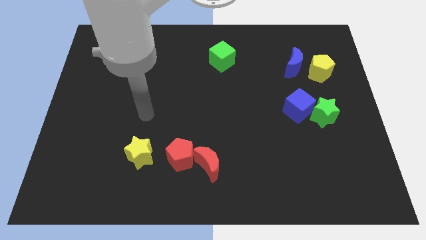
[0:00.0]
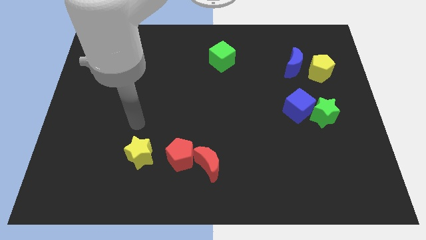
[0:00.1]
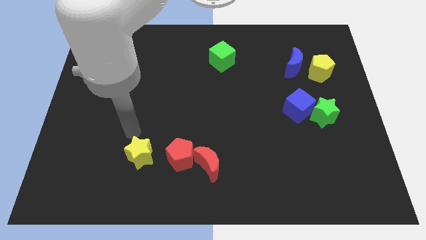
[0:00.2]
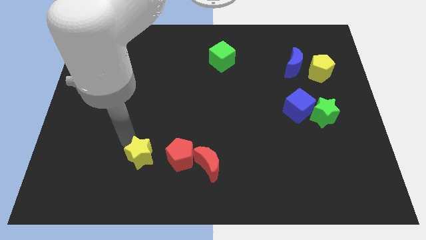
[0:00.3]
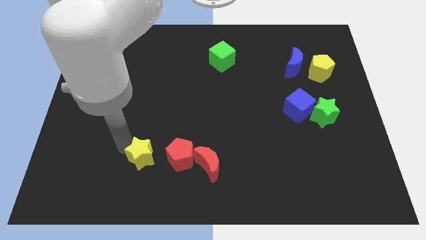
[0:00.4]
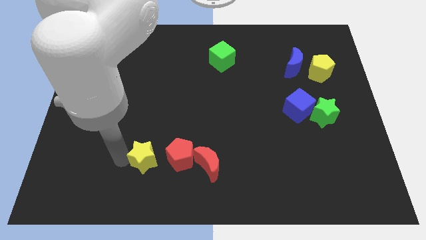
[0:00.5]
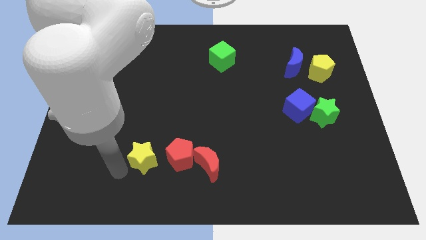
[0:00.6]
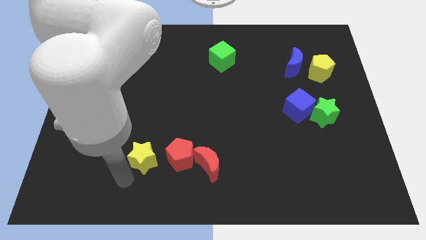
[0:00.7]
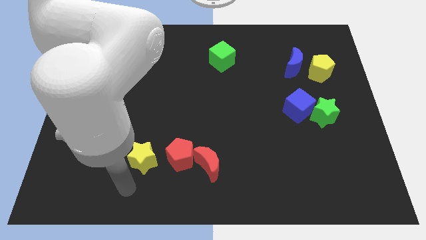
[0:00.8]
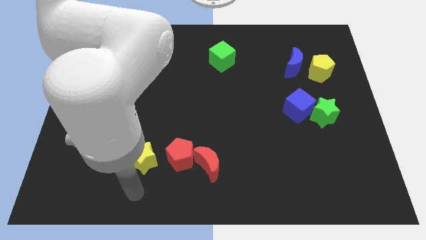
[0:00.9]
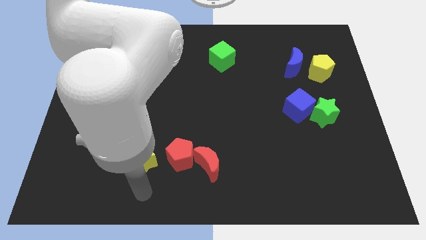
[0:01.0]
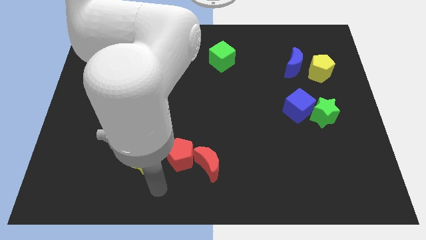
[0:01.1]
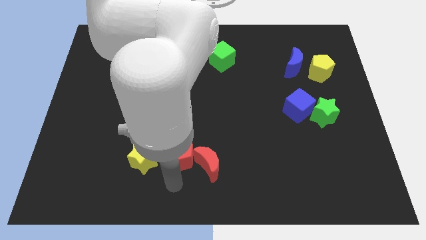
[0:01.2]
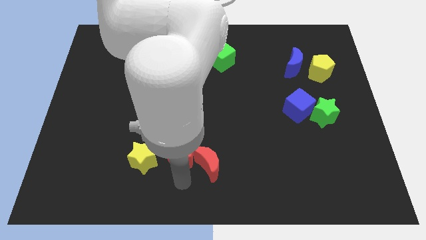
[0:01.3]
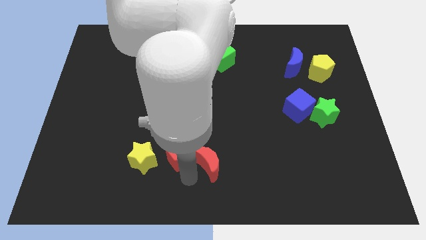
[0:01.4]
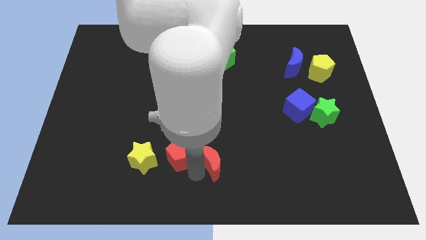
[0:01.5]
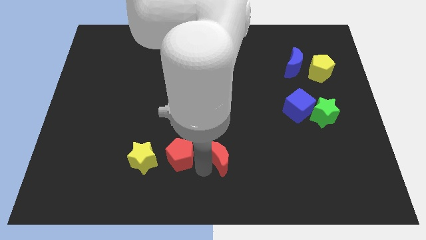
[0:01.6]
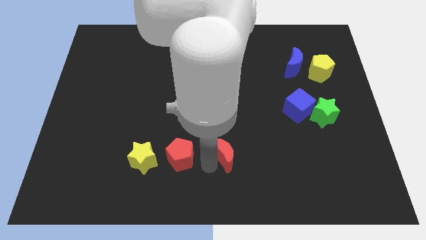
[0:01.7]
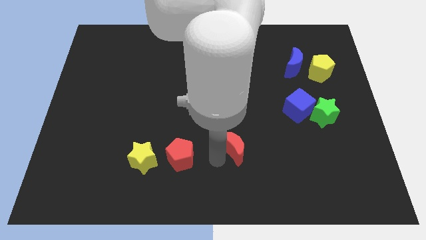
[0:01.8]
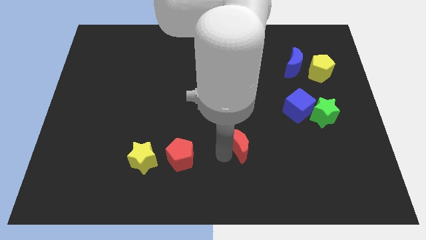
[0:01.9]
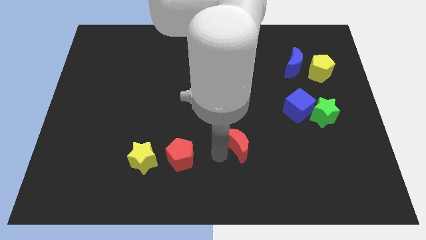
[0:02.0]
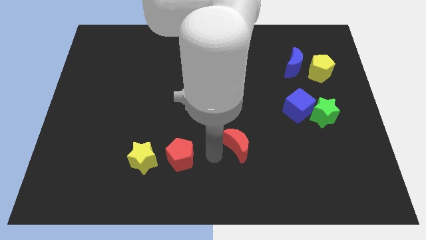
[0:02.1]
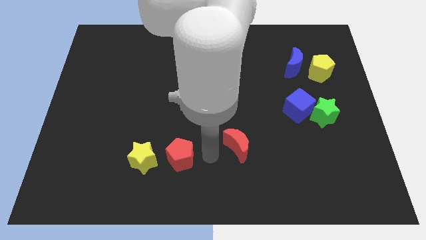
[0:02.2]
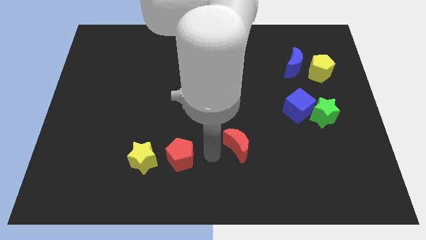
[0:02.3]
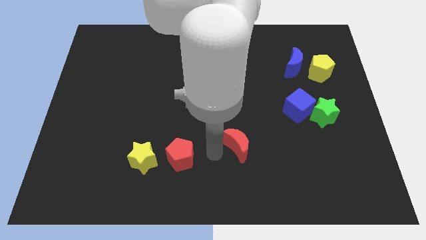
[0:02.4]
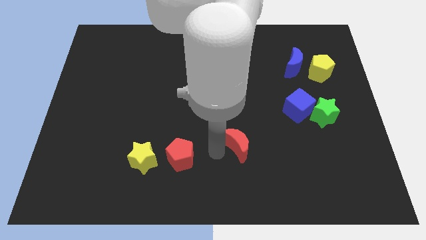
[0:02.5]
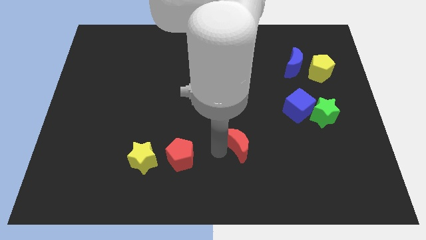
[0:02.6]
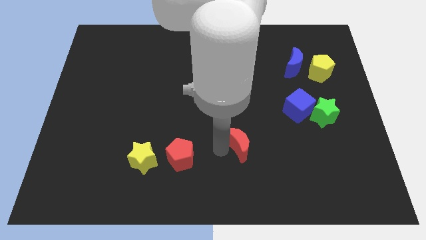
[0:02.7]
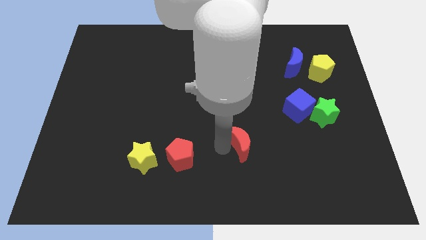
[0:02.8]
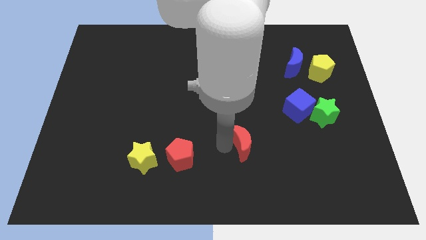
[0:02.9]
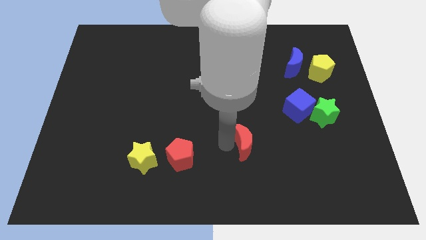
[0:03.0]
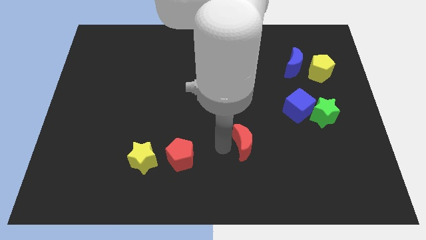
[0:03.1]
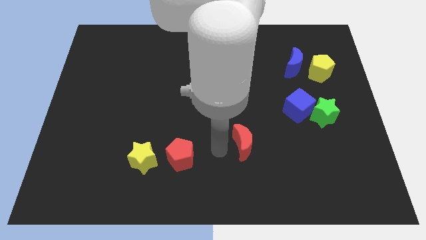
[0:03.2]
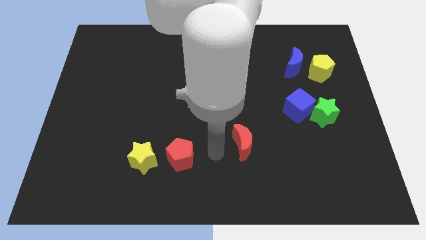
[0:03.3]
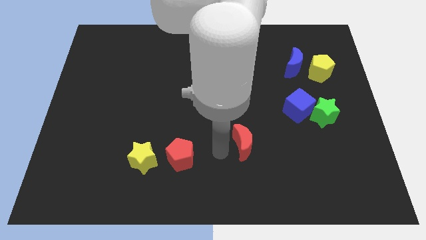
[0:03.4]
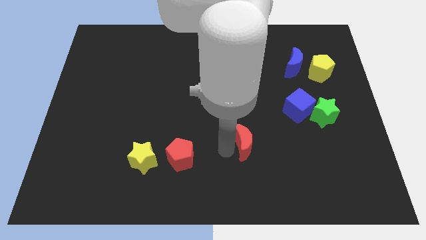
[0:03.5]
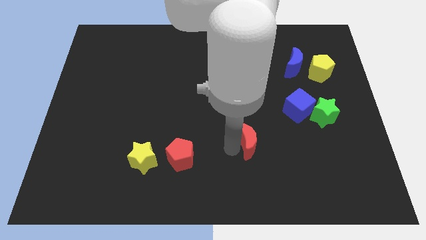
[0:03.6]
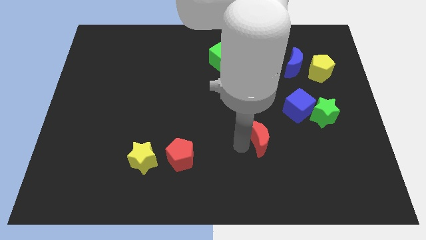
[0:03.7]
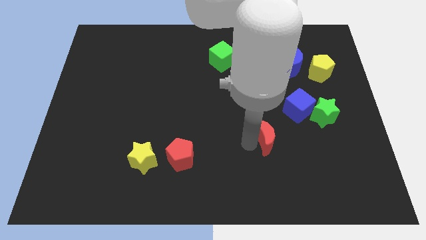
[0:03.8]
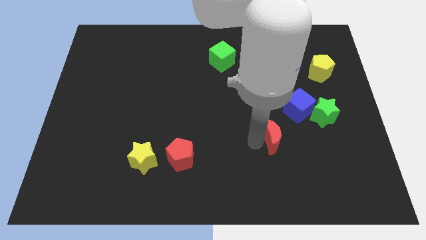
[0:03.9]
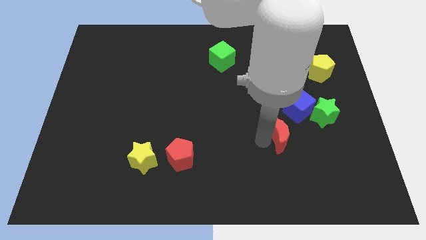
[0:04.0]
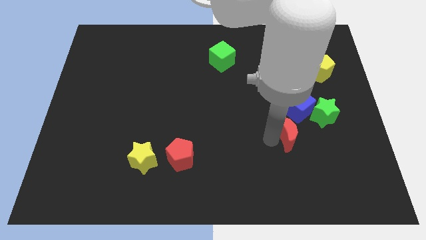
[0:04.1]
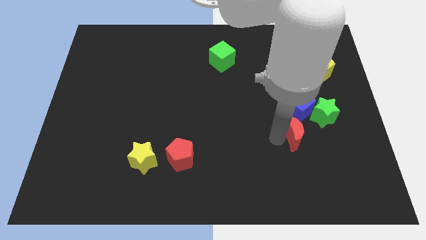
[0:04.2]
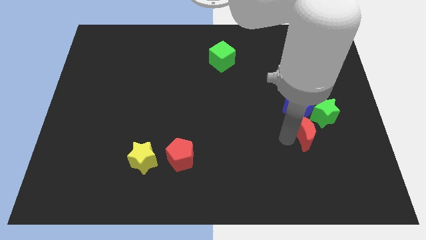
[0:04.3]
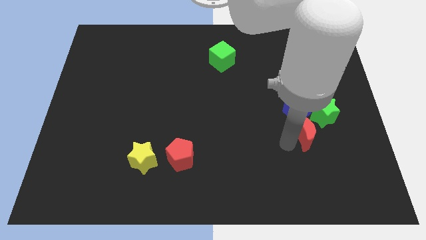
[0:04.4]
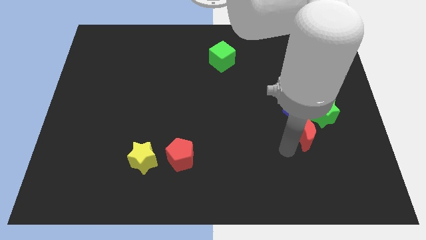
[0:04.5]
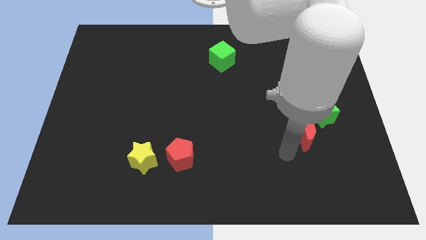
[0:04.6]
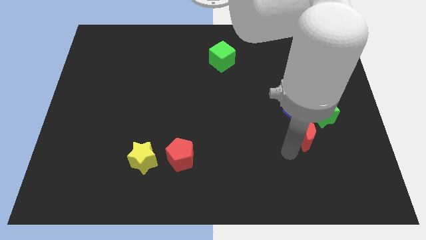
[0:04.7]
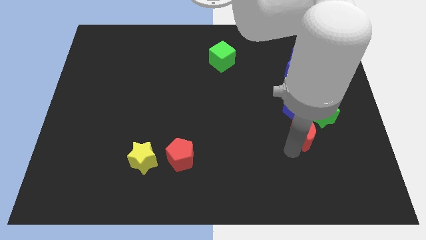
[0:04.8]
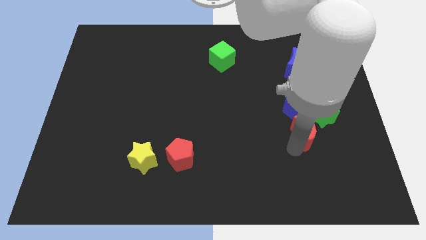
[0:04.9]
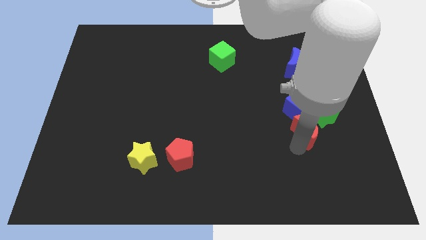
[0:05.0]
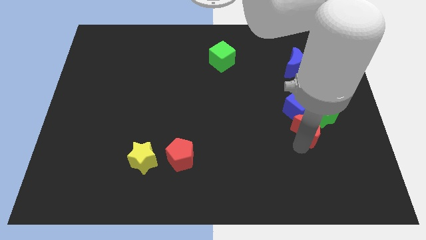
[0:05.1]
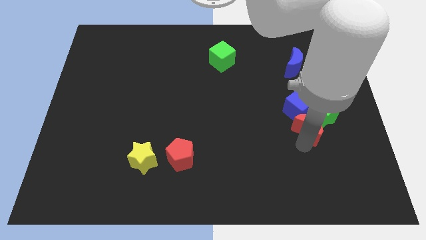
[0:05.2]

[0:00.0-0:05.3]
put the red moon to the green star

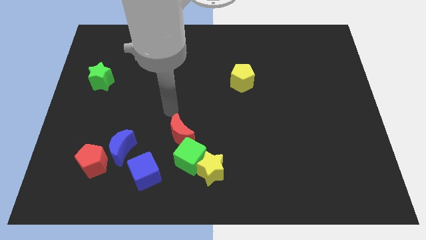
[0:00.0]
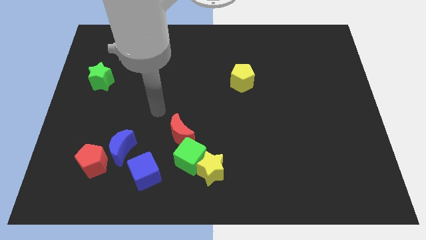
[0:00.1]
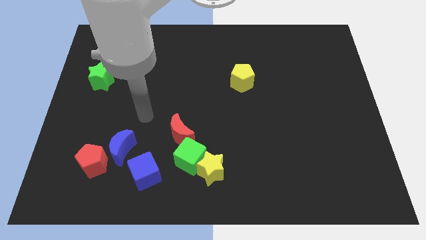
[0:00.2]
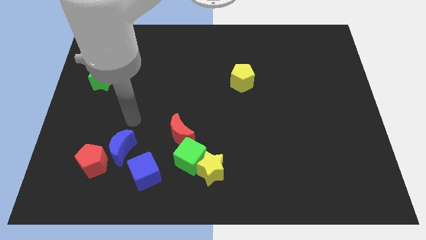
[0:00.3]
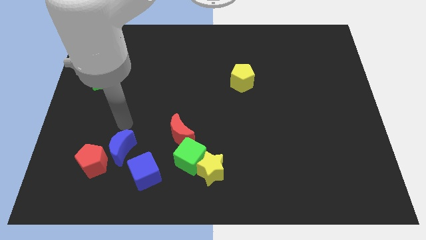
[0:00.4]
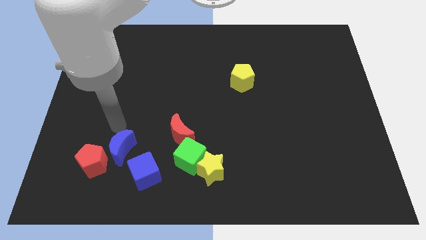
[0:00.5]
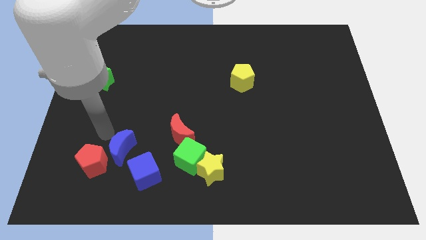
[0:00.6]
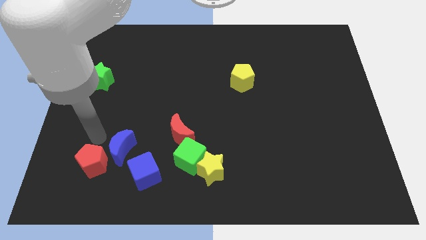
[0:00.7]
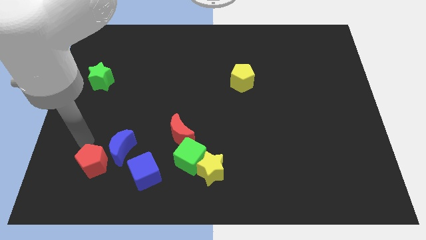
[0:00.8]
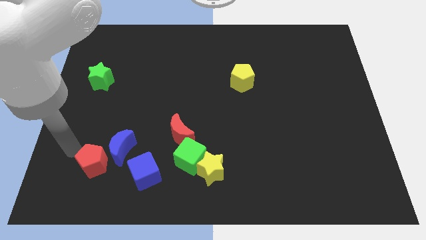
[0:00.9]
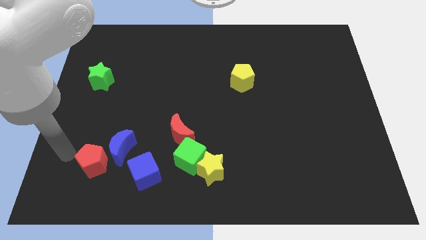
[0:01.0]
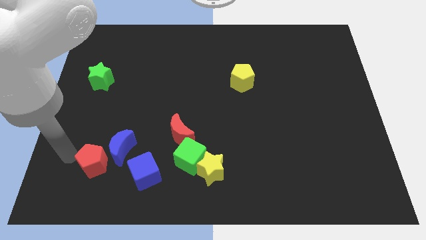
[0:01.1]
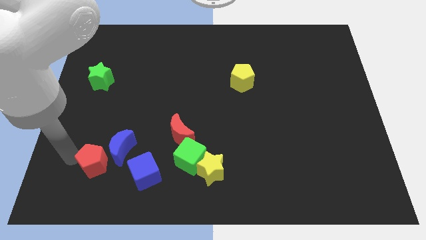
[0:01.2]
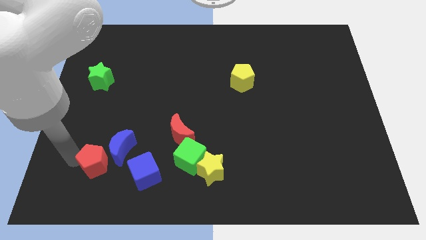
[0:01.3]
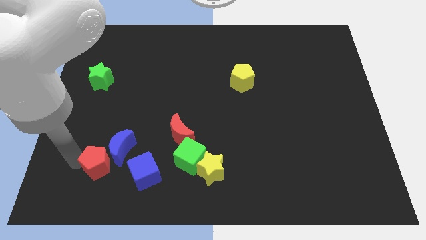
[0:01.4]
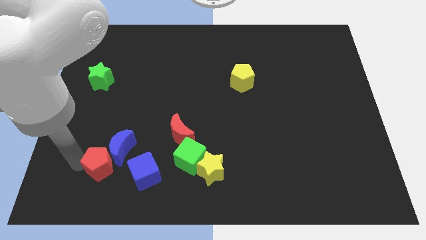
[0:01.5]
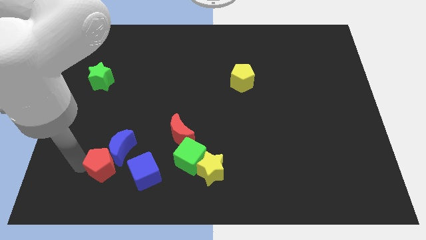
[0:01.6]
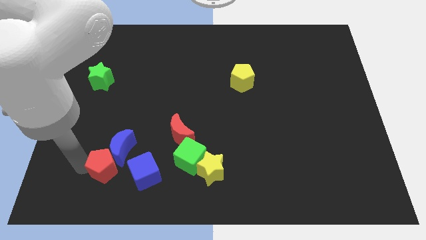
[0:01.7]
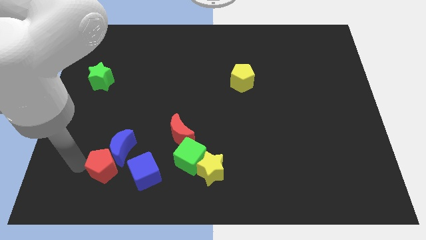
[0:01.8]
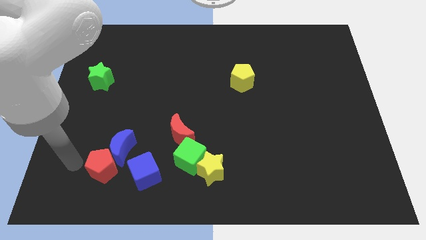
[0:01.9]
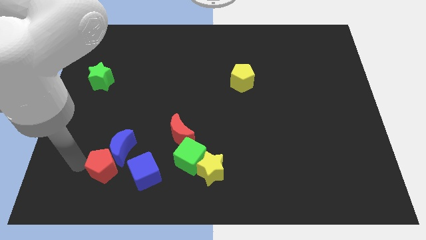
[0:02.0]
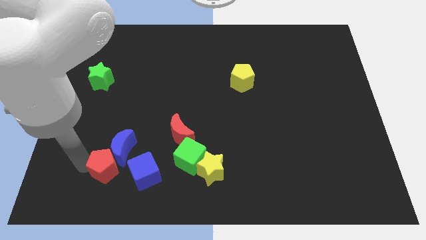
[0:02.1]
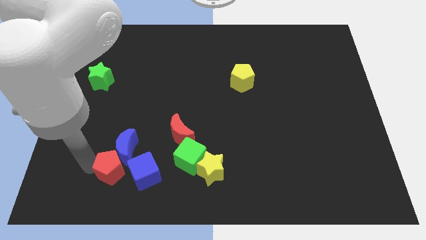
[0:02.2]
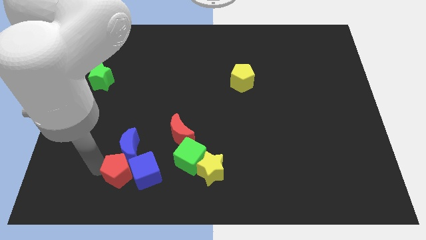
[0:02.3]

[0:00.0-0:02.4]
put the red pentagon close to the blue cube
